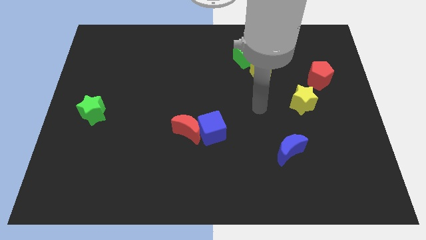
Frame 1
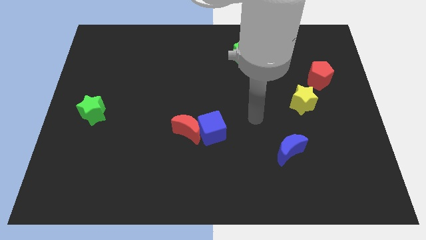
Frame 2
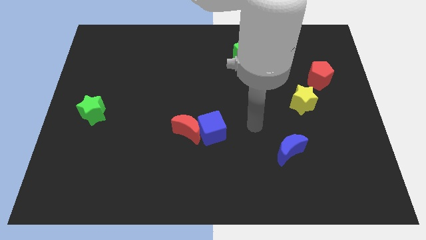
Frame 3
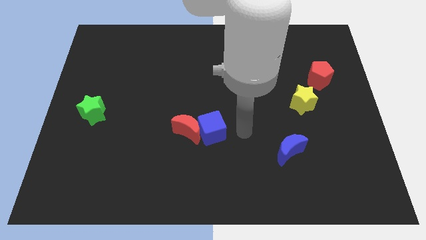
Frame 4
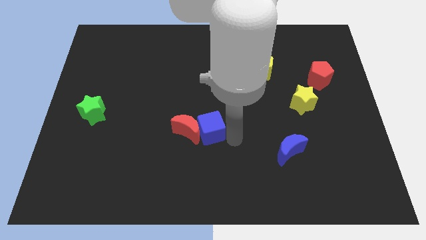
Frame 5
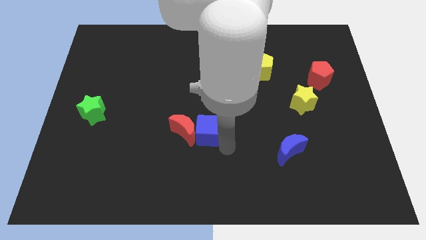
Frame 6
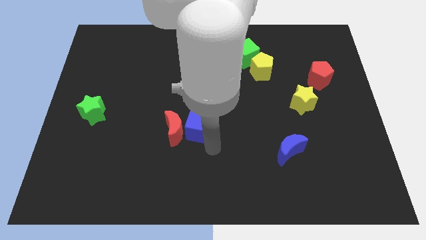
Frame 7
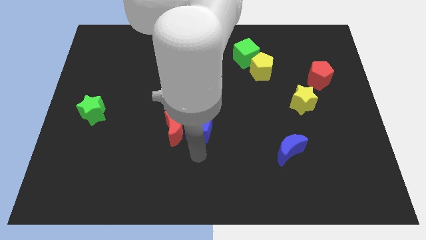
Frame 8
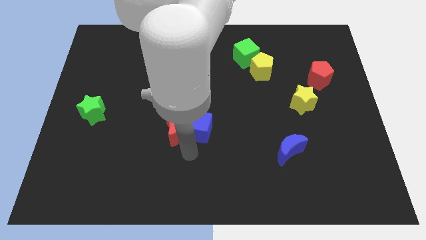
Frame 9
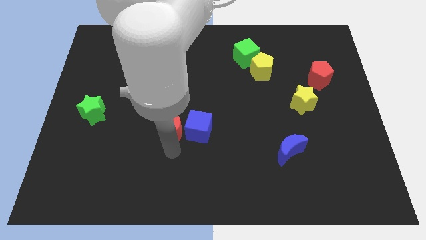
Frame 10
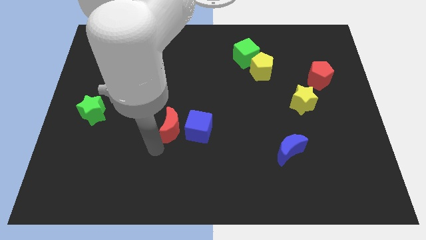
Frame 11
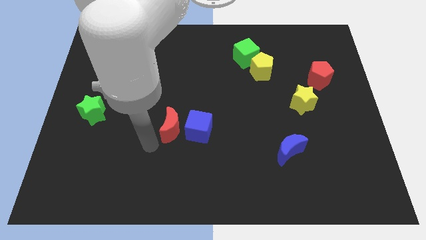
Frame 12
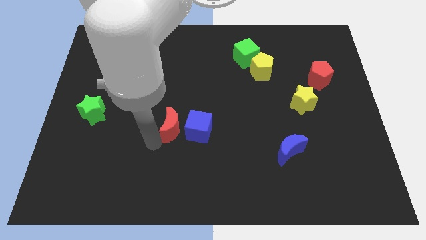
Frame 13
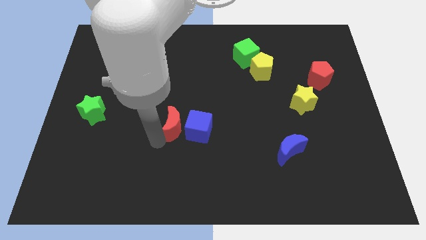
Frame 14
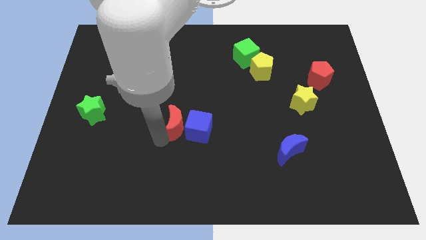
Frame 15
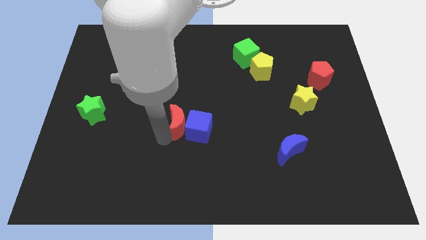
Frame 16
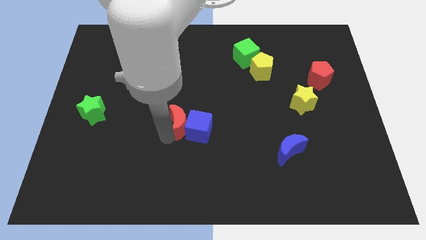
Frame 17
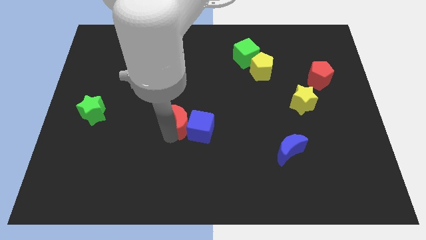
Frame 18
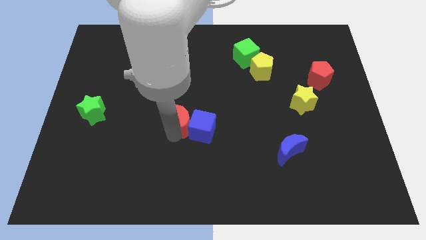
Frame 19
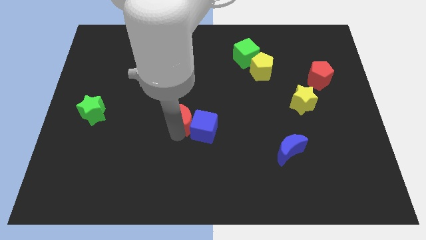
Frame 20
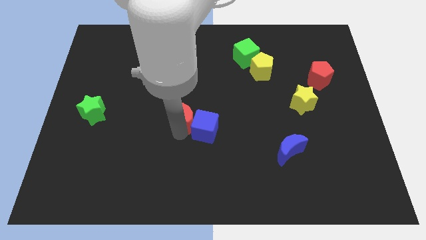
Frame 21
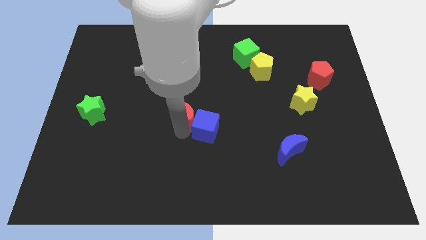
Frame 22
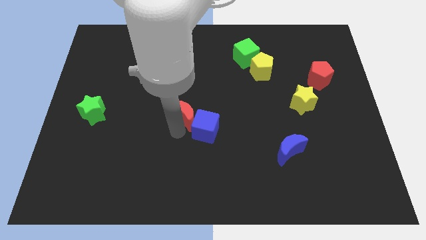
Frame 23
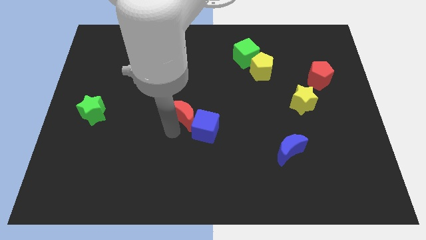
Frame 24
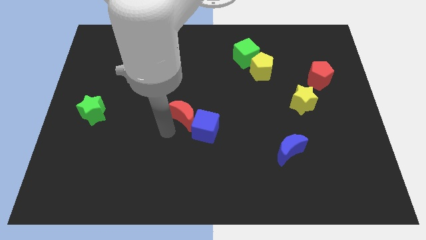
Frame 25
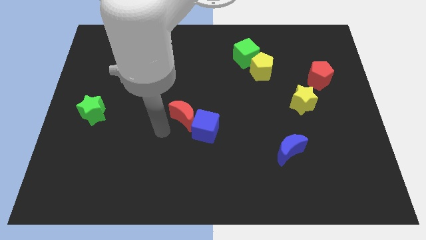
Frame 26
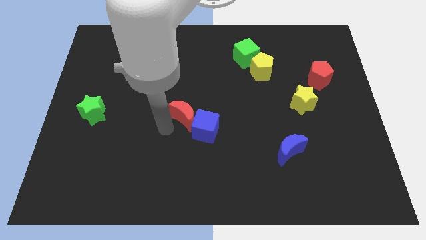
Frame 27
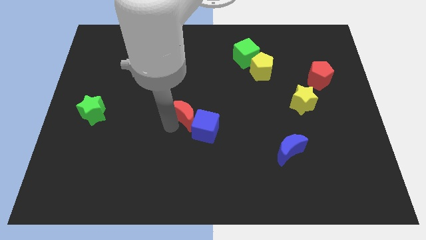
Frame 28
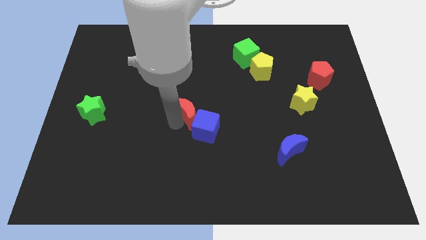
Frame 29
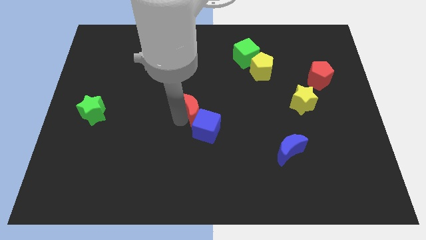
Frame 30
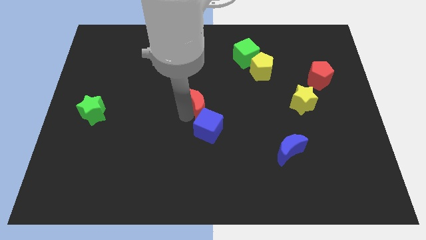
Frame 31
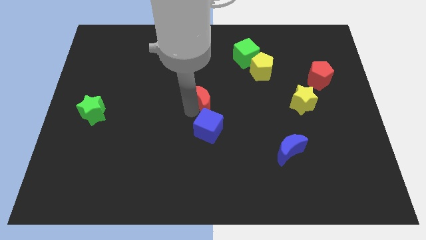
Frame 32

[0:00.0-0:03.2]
move the red moon somewhat upwards and to the right diagonally

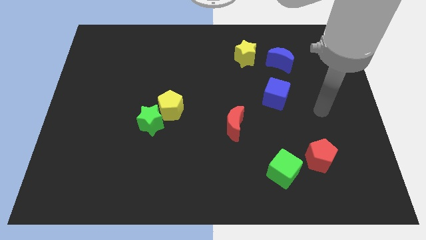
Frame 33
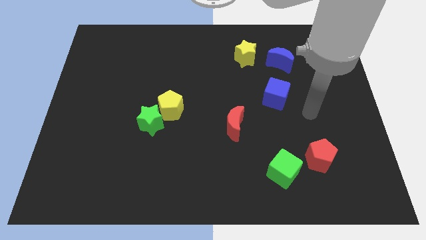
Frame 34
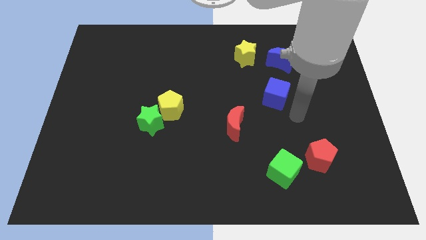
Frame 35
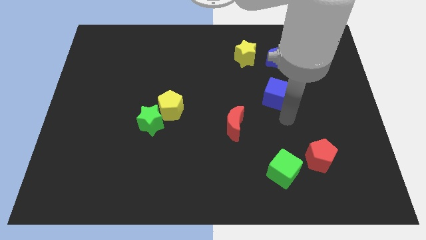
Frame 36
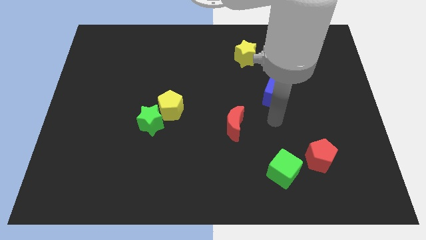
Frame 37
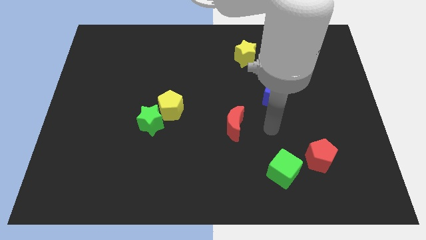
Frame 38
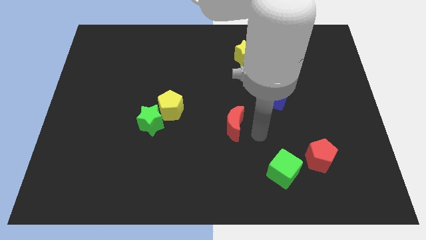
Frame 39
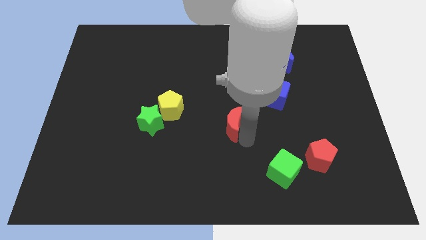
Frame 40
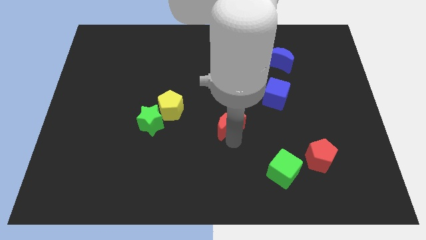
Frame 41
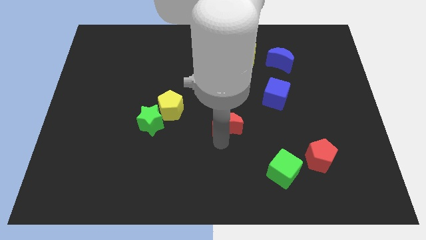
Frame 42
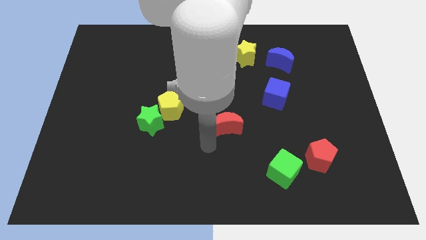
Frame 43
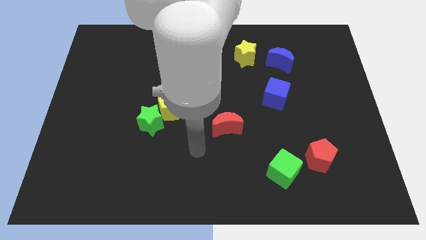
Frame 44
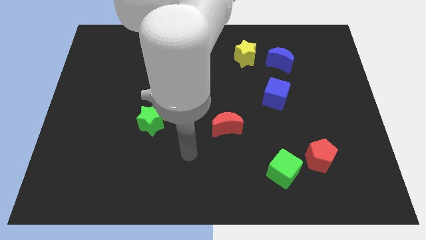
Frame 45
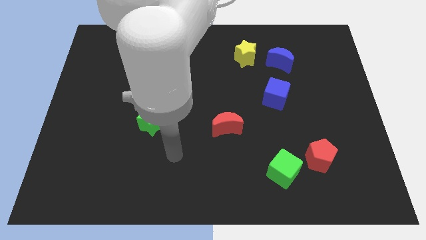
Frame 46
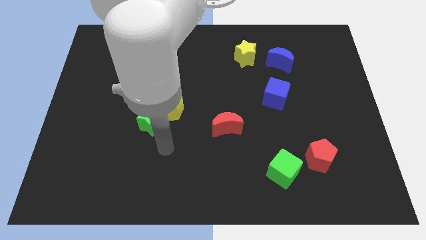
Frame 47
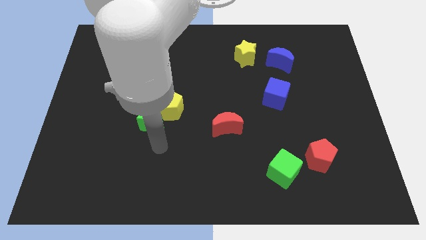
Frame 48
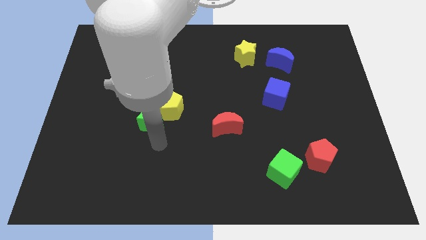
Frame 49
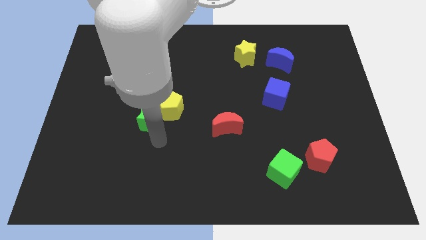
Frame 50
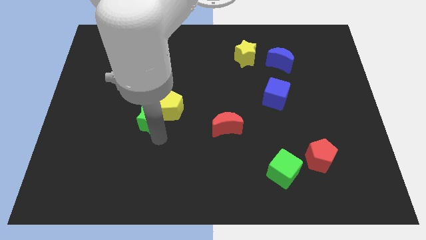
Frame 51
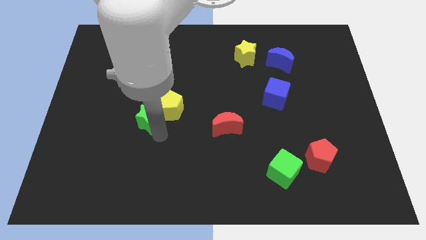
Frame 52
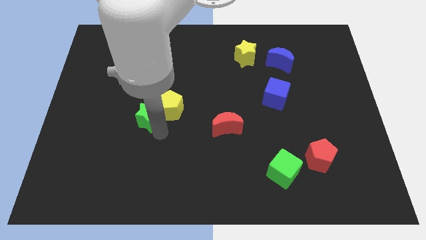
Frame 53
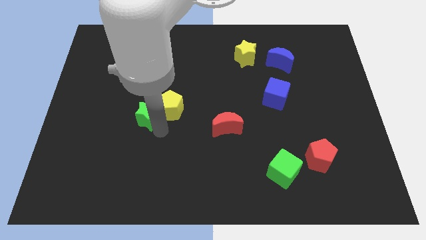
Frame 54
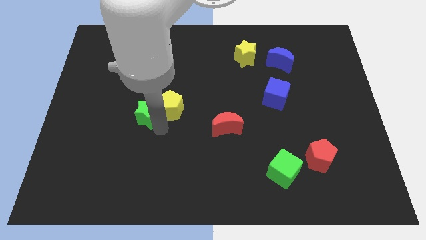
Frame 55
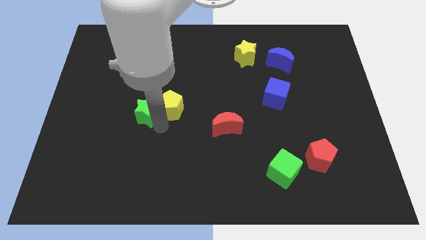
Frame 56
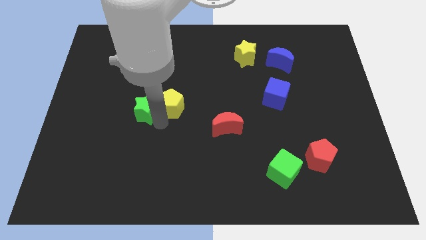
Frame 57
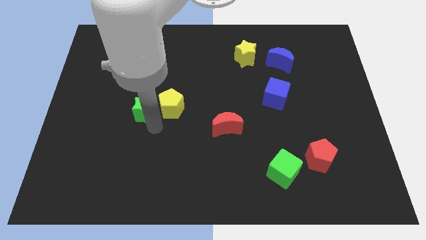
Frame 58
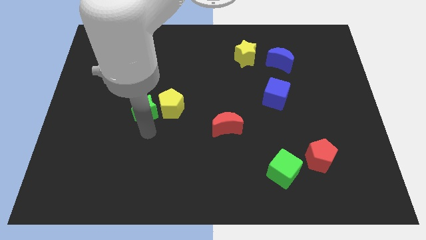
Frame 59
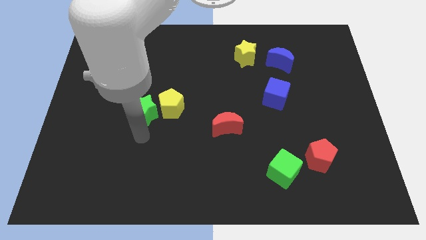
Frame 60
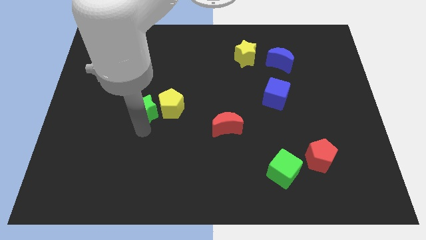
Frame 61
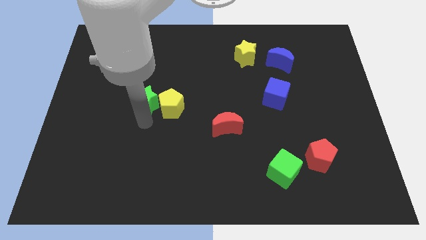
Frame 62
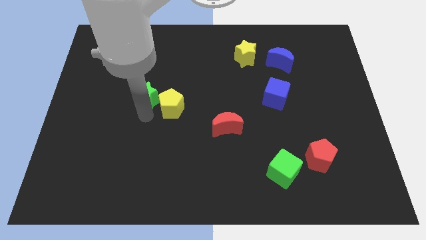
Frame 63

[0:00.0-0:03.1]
push the green star a little upwards

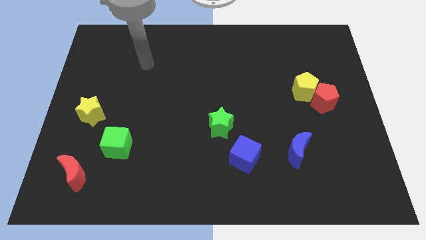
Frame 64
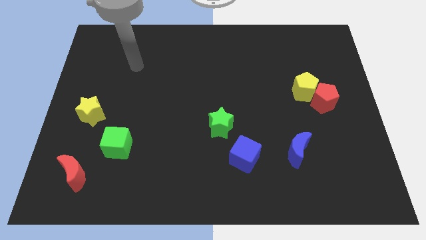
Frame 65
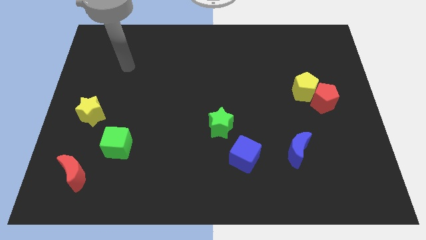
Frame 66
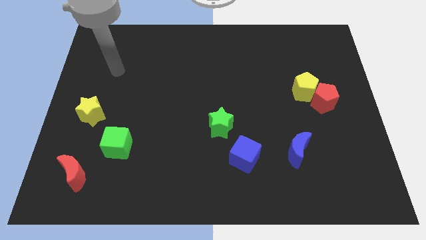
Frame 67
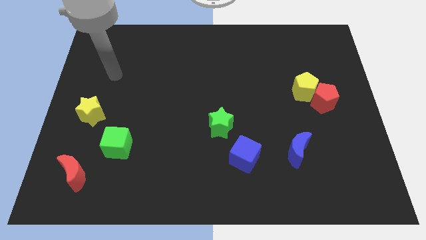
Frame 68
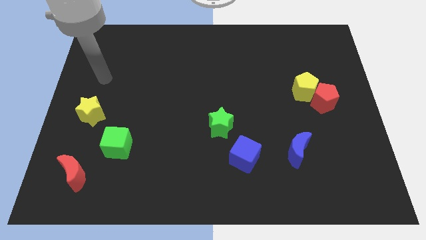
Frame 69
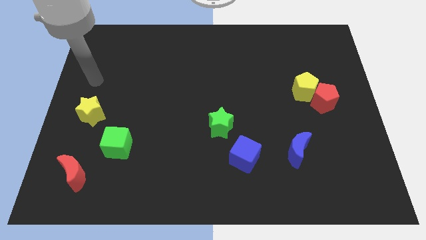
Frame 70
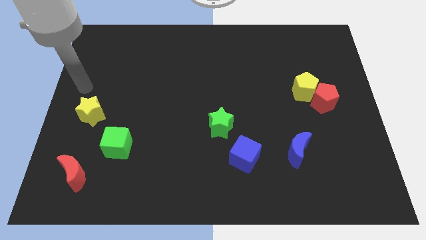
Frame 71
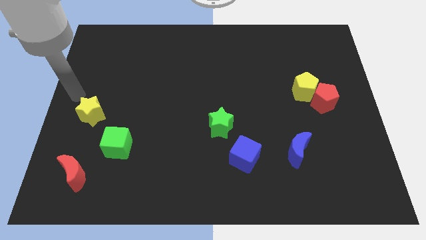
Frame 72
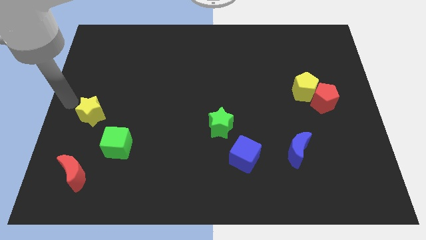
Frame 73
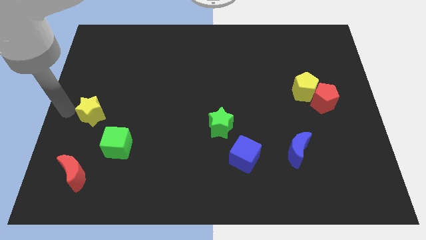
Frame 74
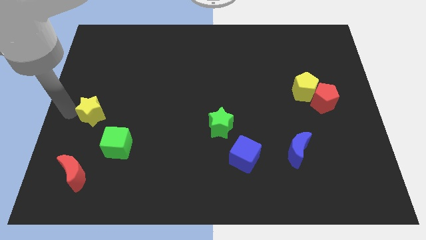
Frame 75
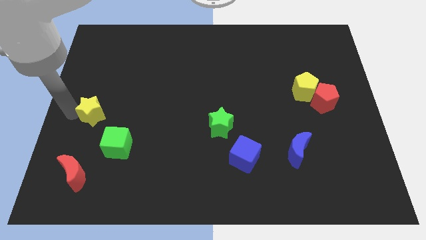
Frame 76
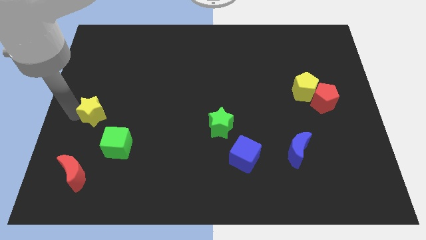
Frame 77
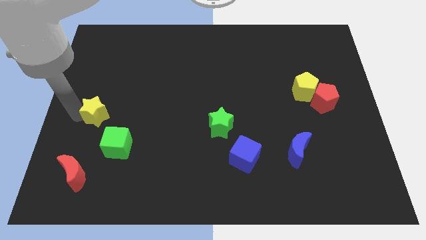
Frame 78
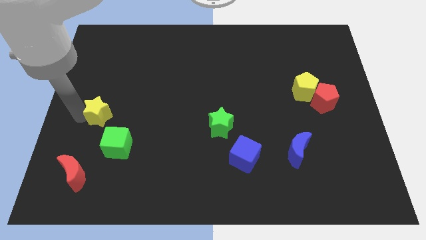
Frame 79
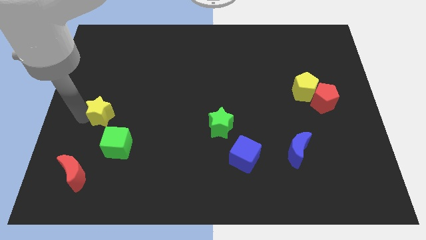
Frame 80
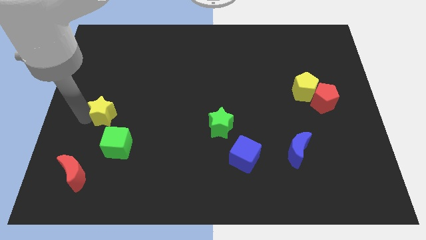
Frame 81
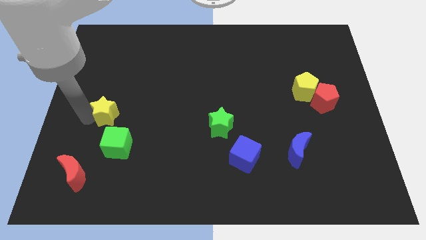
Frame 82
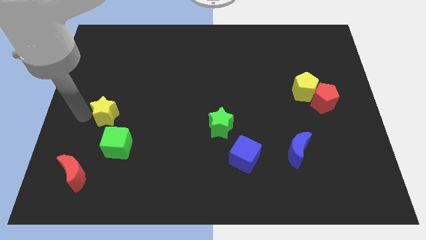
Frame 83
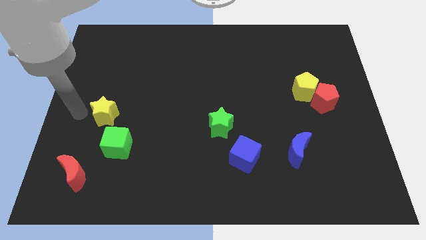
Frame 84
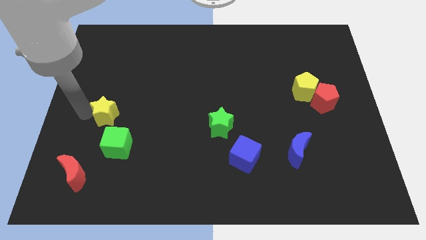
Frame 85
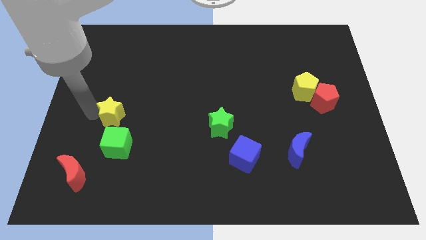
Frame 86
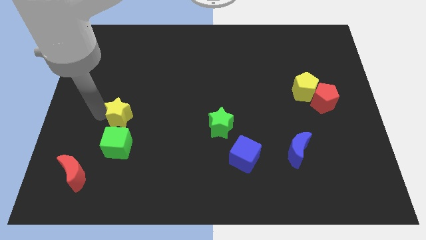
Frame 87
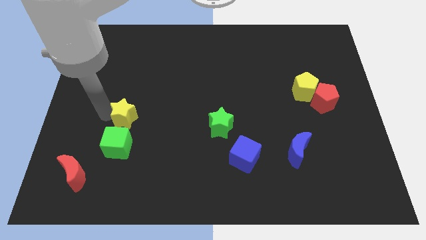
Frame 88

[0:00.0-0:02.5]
slightly push the yellow star to the right
